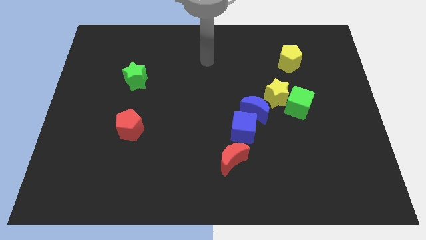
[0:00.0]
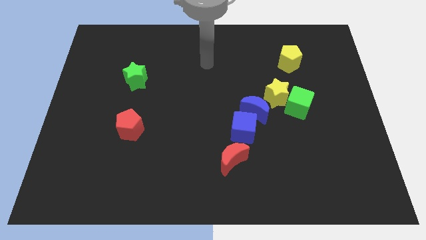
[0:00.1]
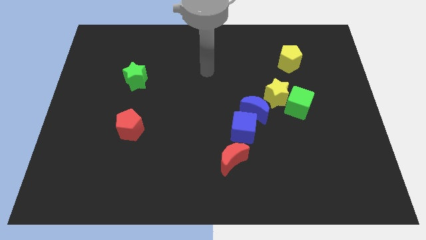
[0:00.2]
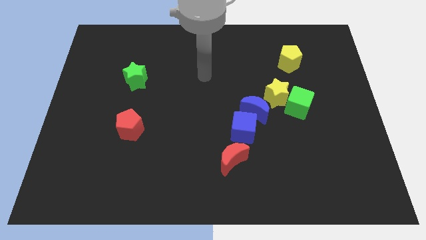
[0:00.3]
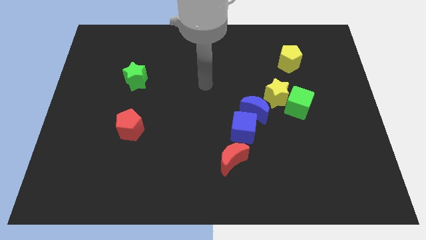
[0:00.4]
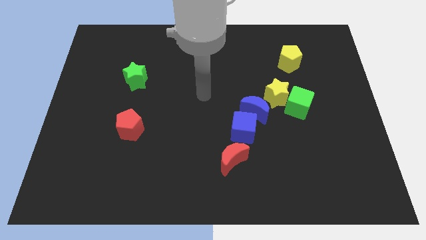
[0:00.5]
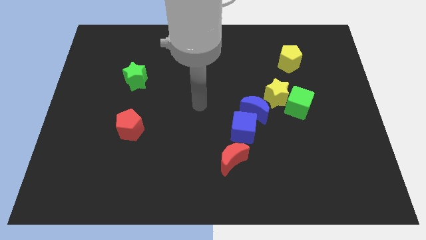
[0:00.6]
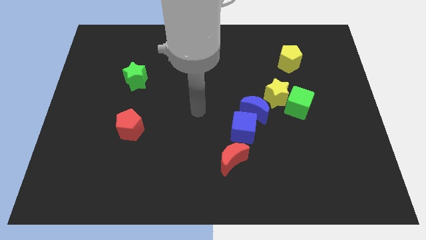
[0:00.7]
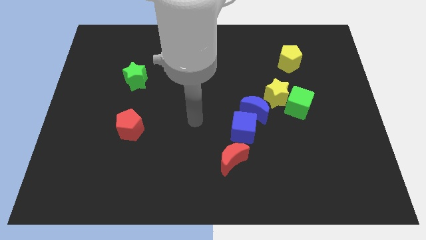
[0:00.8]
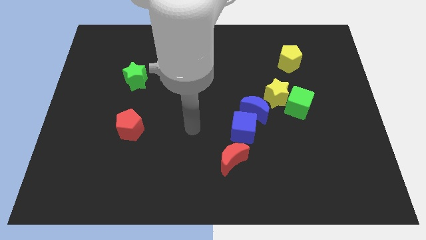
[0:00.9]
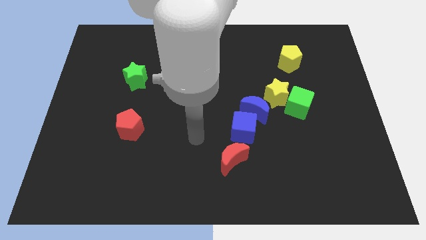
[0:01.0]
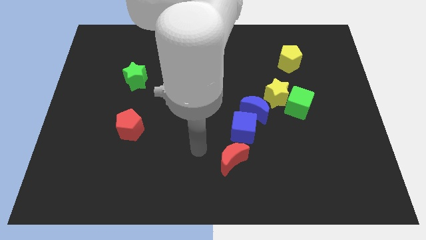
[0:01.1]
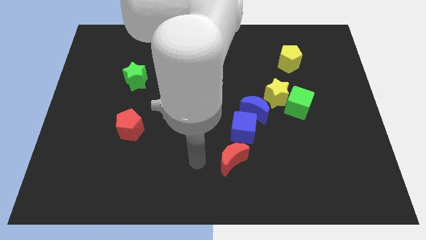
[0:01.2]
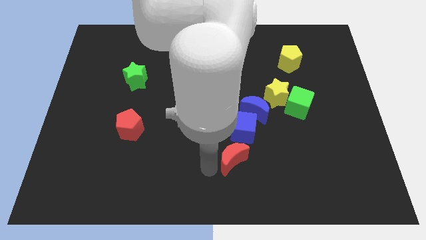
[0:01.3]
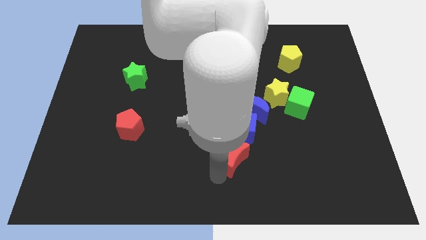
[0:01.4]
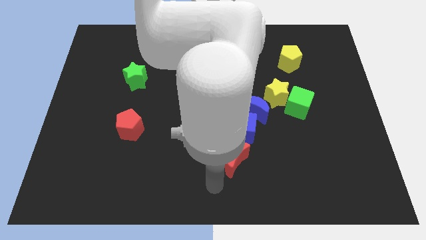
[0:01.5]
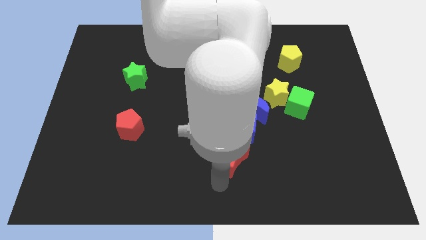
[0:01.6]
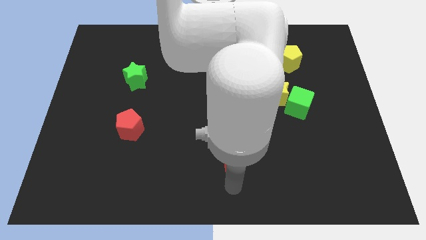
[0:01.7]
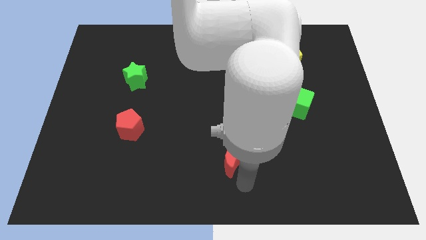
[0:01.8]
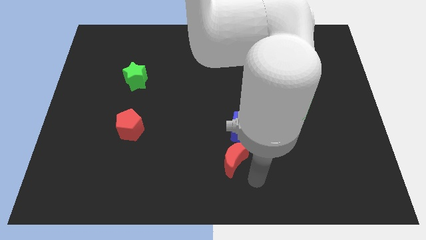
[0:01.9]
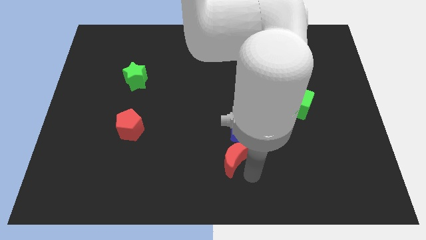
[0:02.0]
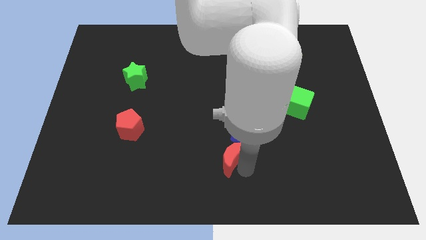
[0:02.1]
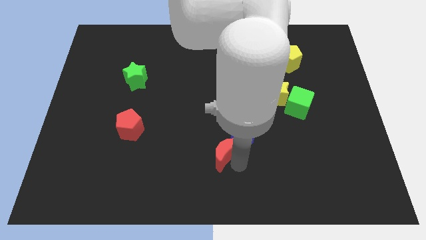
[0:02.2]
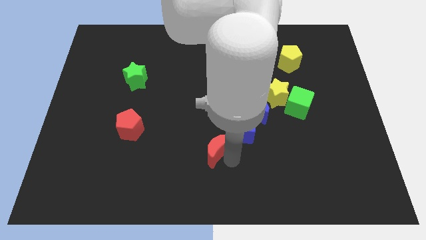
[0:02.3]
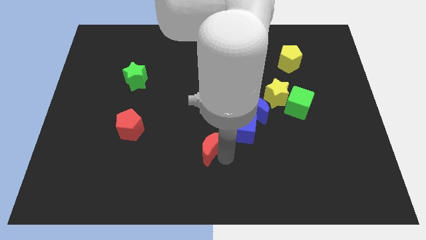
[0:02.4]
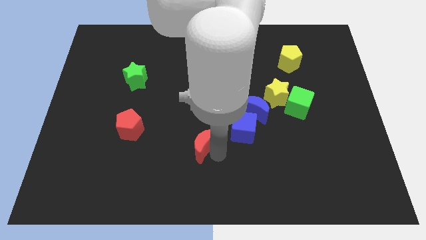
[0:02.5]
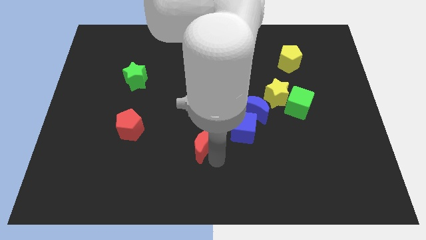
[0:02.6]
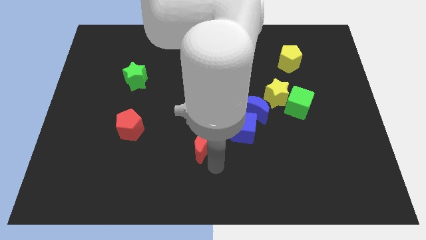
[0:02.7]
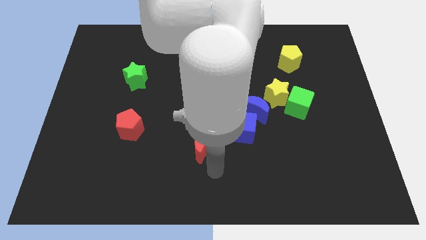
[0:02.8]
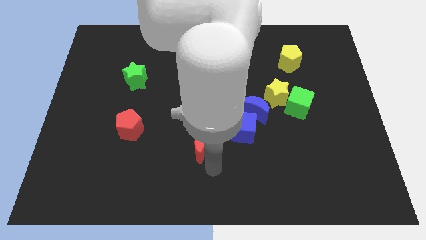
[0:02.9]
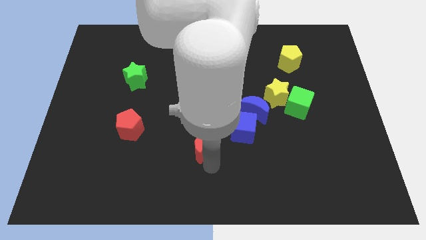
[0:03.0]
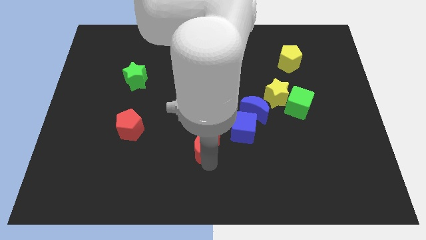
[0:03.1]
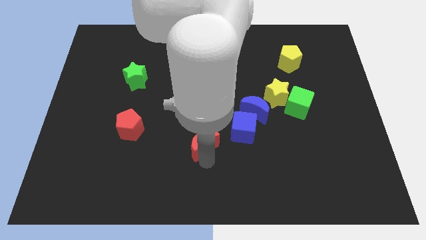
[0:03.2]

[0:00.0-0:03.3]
slide the red moon a little bit up and left diagonally

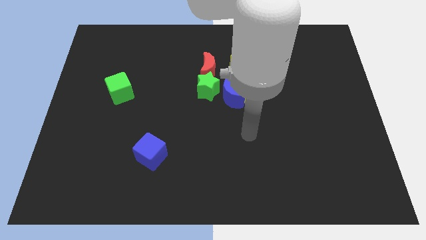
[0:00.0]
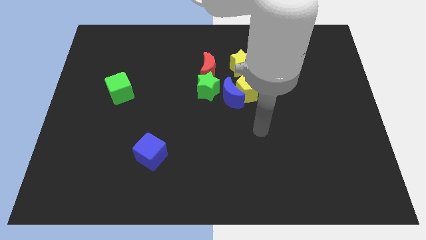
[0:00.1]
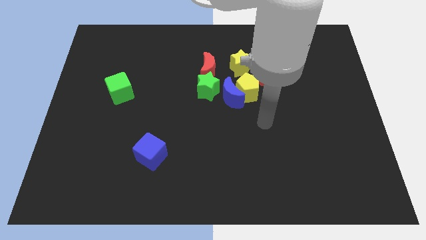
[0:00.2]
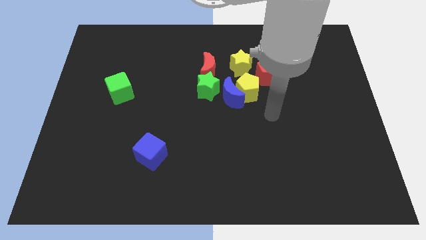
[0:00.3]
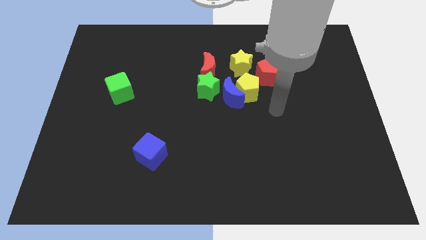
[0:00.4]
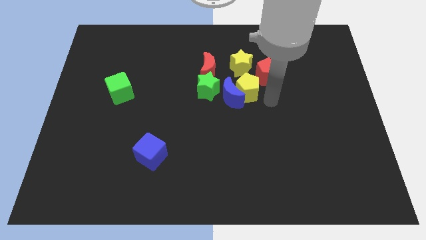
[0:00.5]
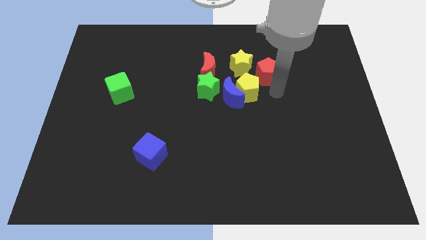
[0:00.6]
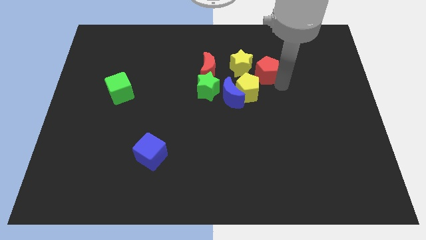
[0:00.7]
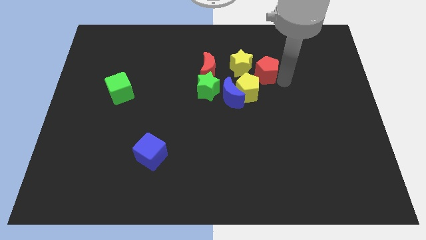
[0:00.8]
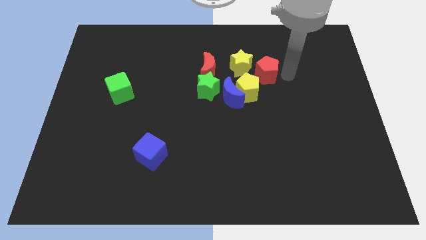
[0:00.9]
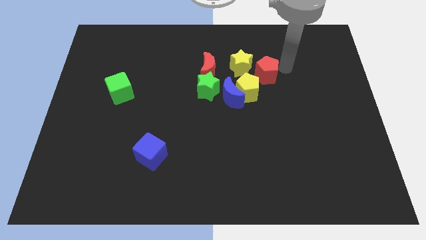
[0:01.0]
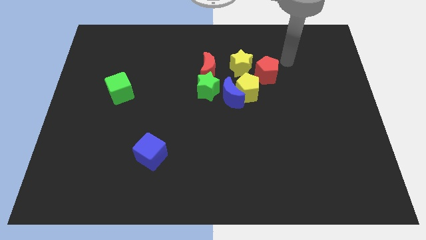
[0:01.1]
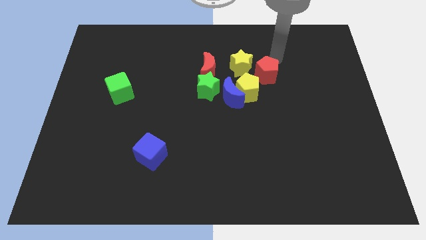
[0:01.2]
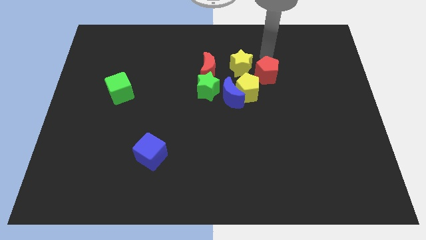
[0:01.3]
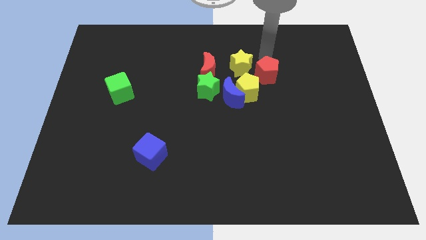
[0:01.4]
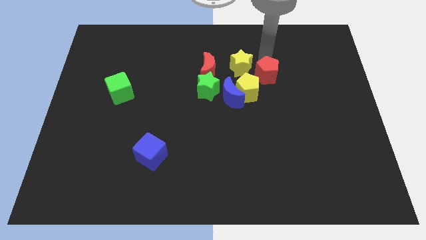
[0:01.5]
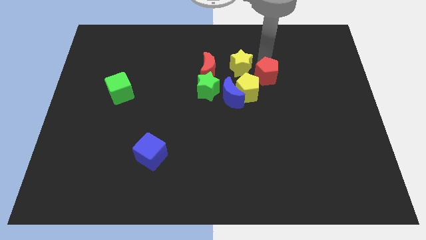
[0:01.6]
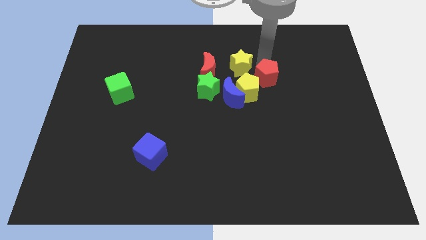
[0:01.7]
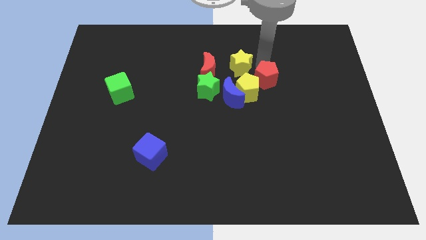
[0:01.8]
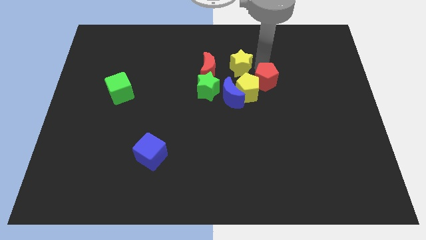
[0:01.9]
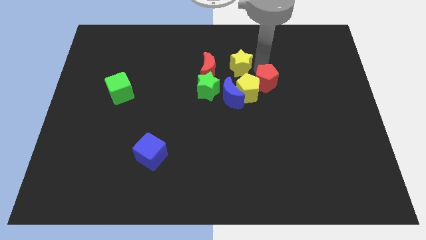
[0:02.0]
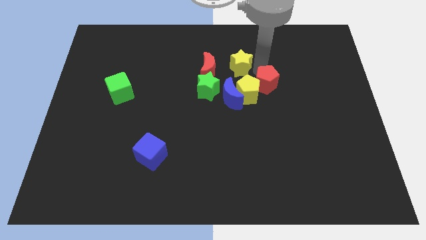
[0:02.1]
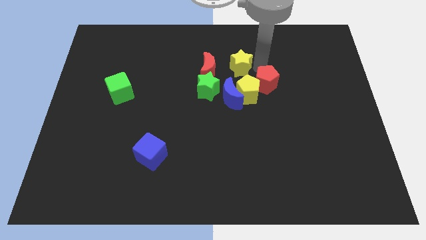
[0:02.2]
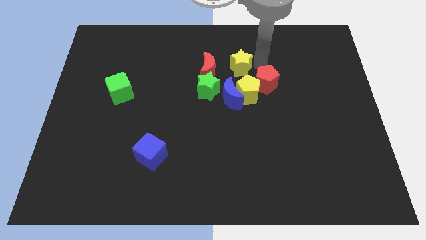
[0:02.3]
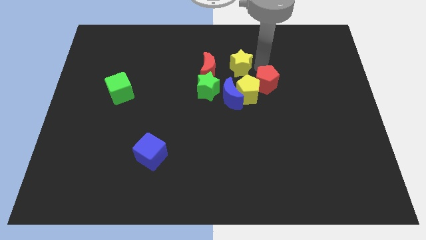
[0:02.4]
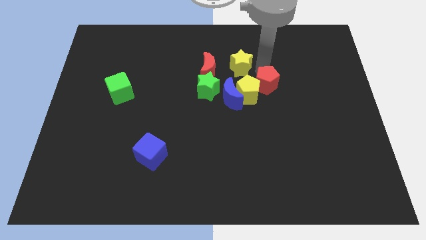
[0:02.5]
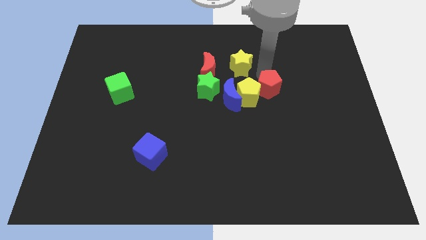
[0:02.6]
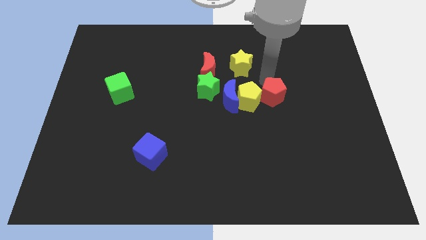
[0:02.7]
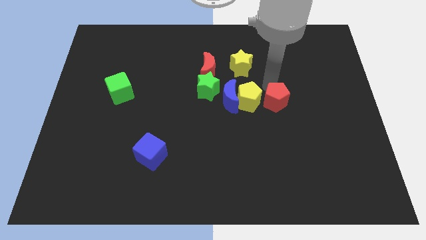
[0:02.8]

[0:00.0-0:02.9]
slightly push the red pentagon downwards

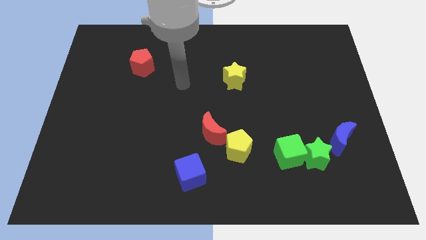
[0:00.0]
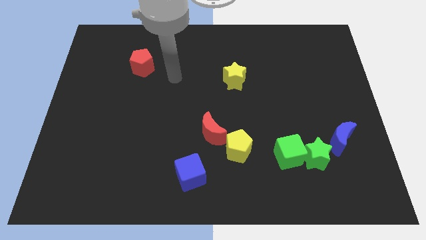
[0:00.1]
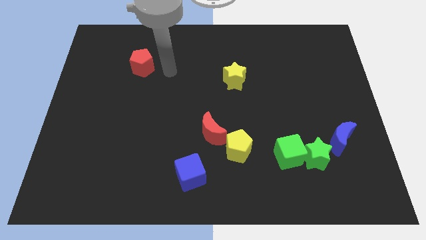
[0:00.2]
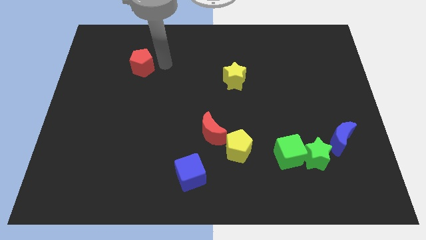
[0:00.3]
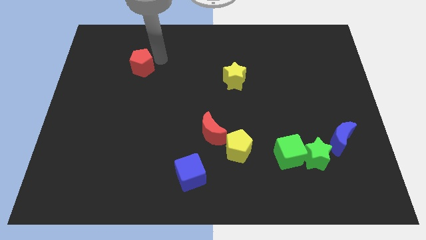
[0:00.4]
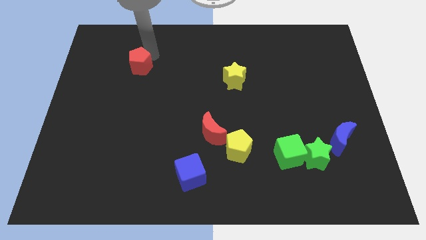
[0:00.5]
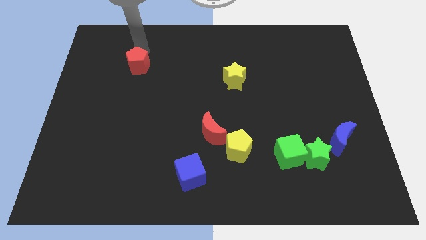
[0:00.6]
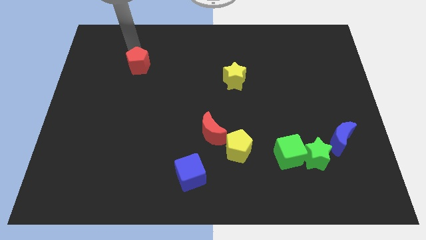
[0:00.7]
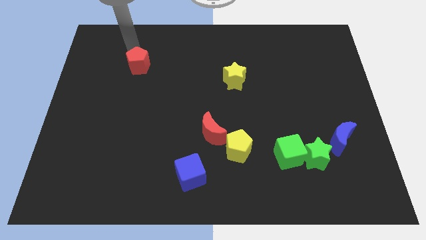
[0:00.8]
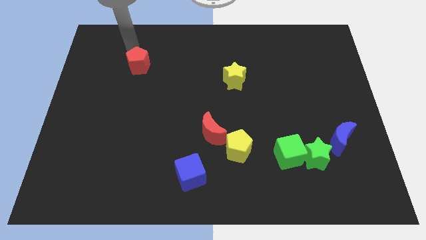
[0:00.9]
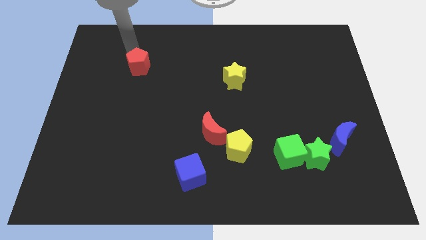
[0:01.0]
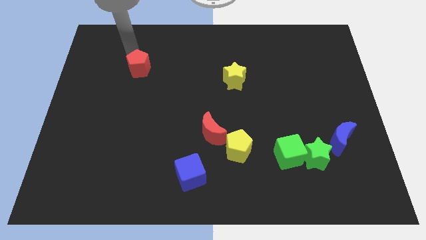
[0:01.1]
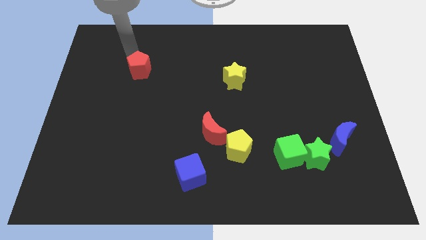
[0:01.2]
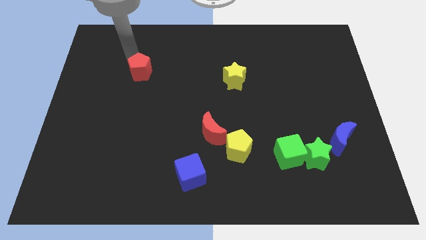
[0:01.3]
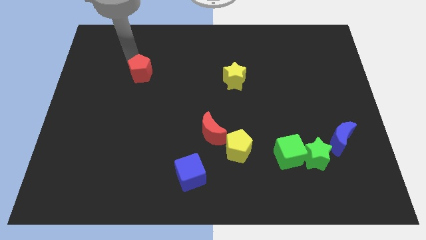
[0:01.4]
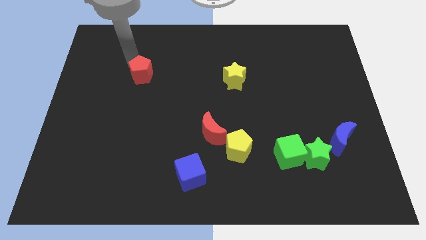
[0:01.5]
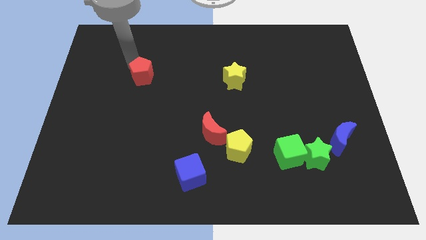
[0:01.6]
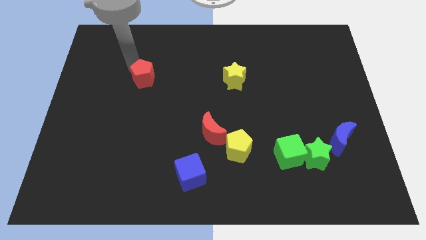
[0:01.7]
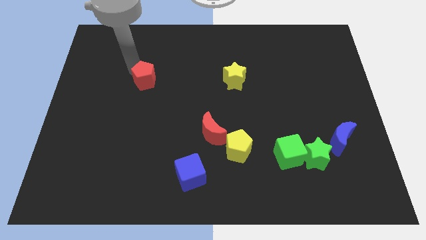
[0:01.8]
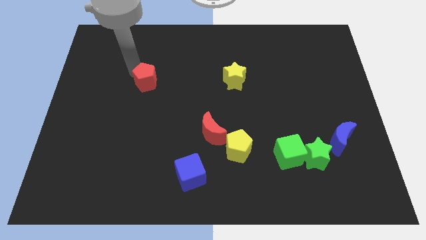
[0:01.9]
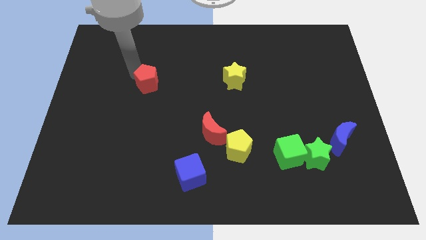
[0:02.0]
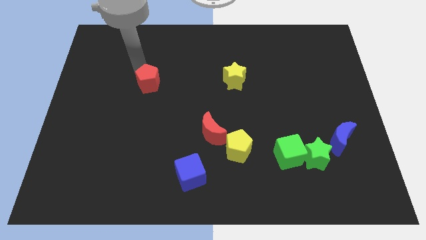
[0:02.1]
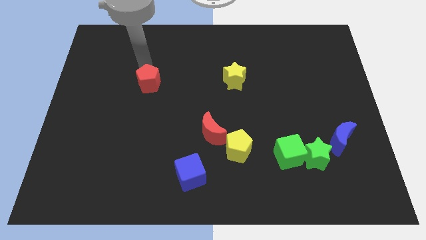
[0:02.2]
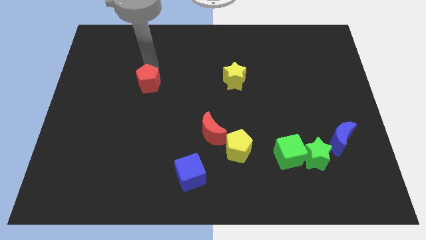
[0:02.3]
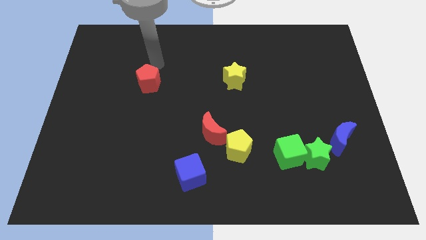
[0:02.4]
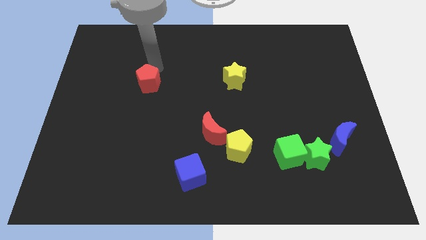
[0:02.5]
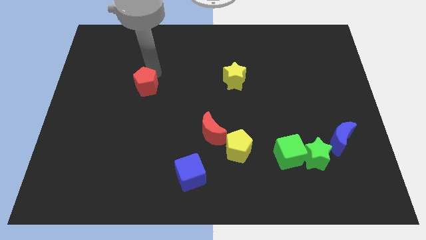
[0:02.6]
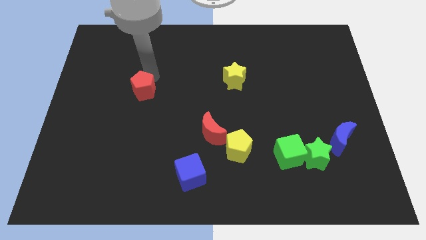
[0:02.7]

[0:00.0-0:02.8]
slightly push the red pentagon down
